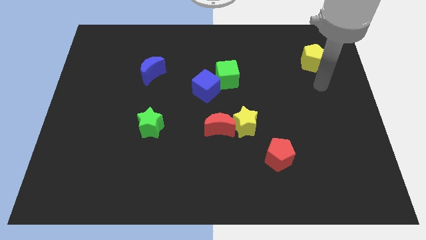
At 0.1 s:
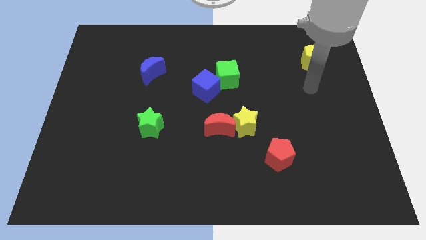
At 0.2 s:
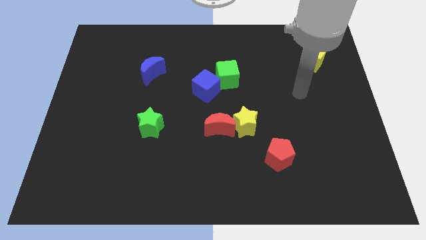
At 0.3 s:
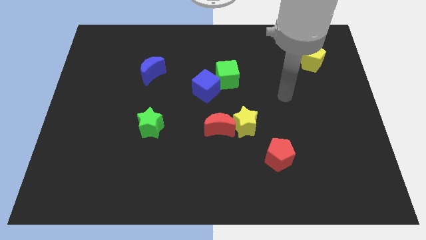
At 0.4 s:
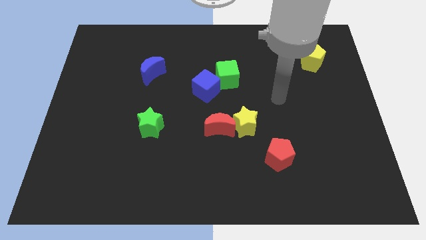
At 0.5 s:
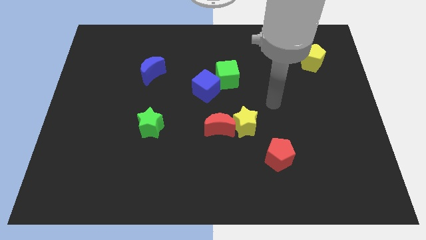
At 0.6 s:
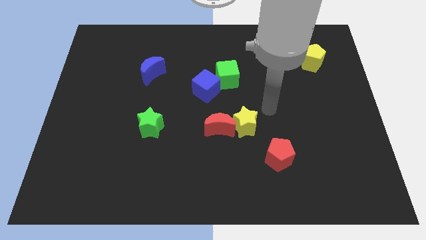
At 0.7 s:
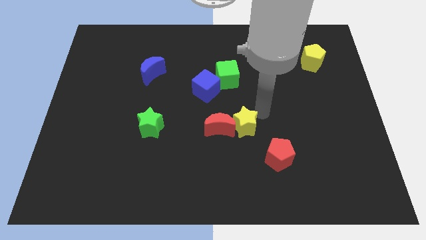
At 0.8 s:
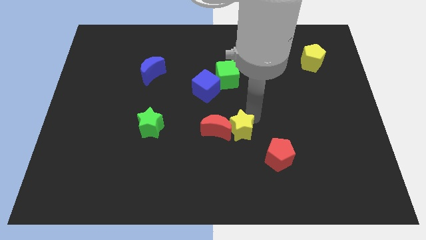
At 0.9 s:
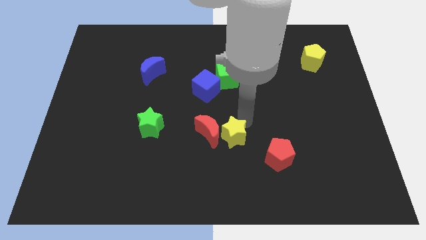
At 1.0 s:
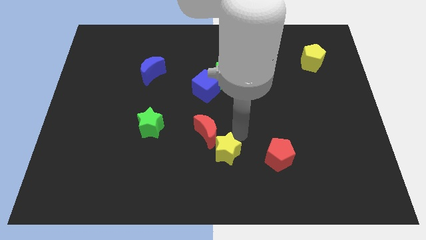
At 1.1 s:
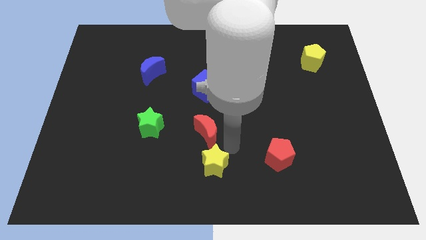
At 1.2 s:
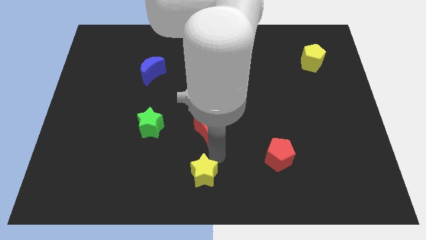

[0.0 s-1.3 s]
separate the red moon from the yellow star

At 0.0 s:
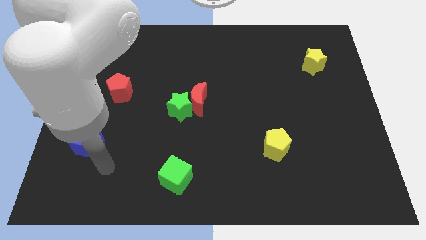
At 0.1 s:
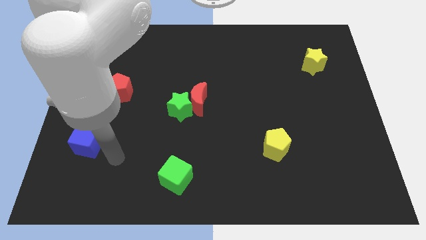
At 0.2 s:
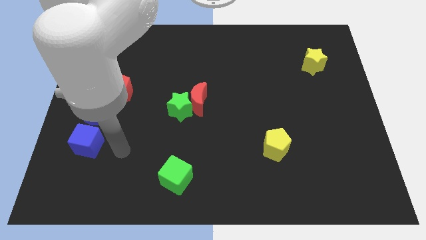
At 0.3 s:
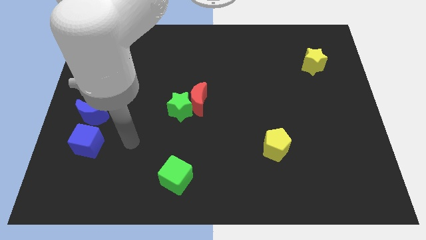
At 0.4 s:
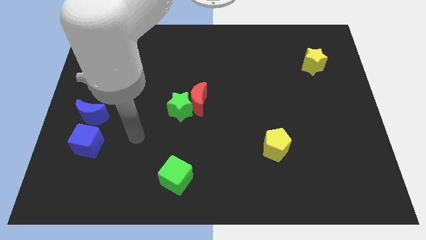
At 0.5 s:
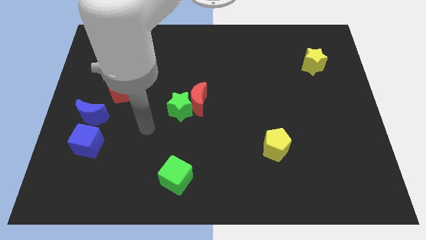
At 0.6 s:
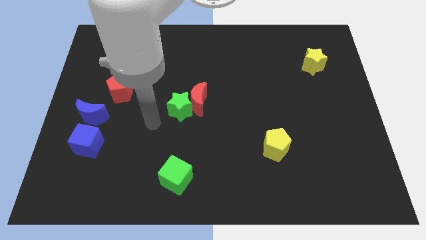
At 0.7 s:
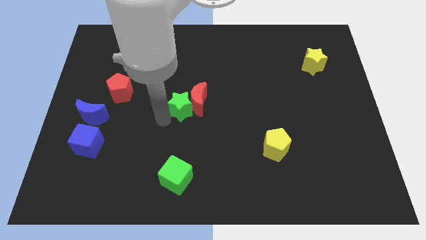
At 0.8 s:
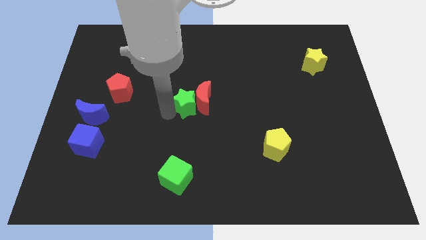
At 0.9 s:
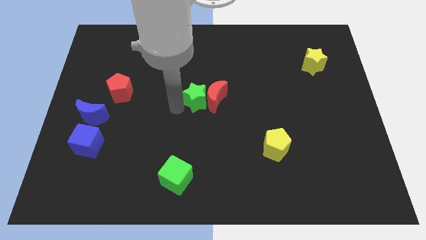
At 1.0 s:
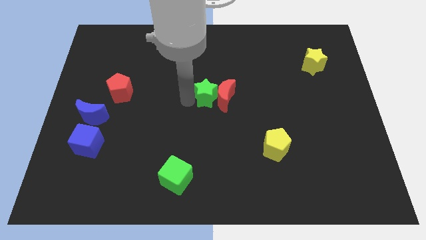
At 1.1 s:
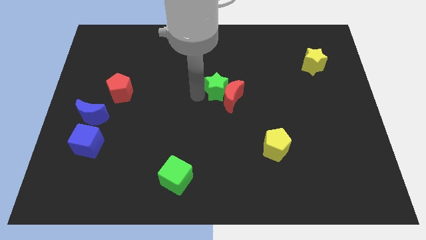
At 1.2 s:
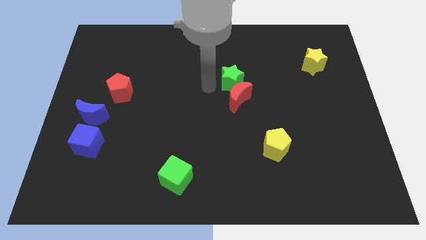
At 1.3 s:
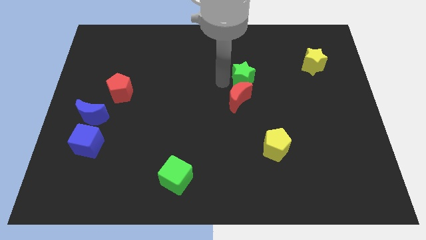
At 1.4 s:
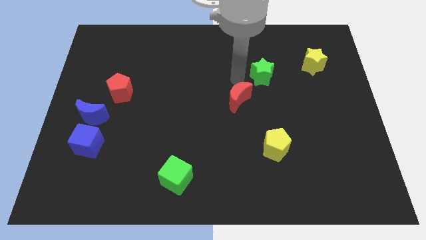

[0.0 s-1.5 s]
separate the red moon from the green star

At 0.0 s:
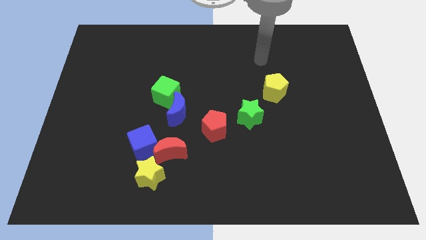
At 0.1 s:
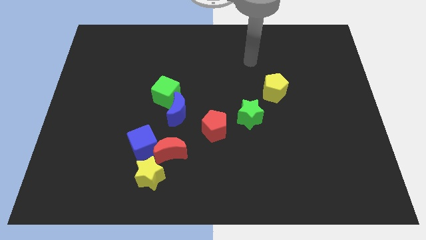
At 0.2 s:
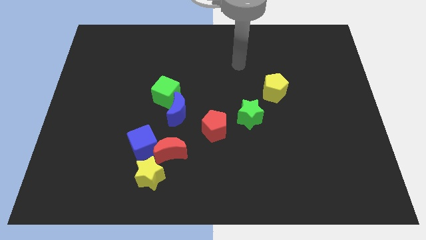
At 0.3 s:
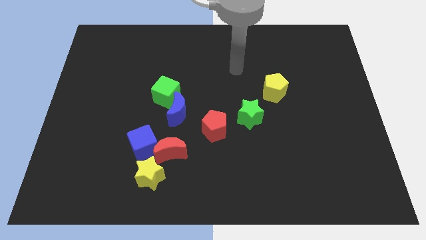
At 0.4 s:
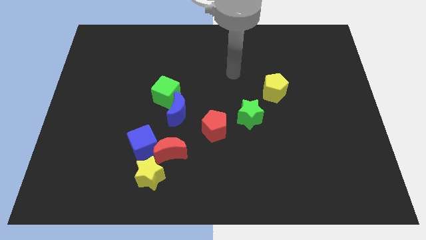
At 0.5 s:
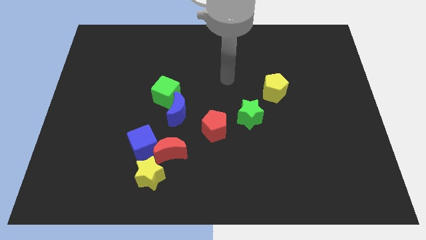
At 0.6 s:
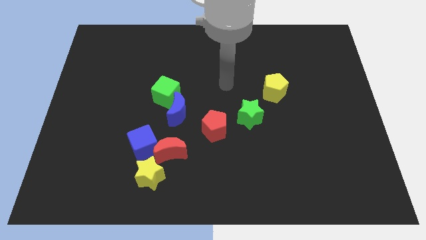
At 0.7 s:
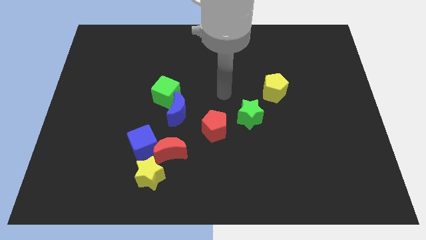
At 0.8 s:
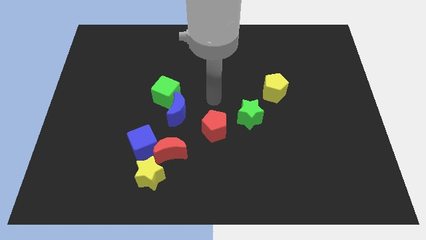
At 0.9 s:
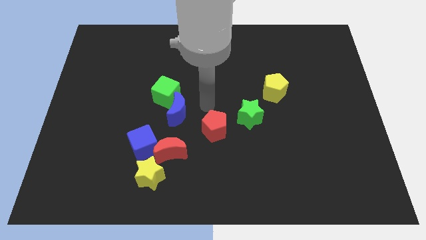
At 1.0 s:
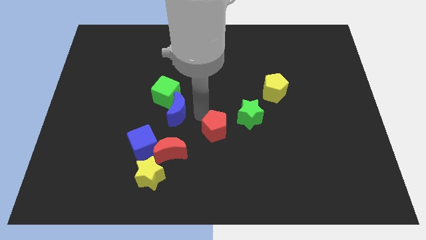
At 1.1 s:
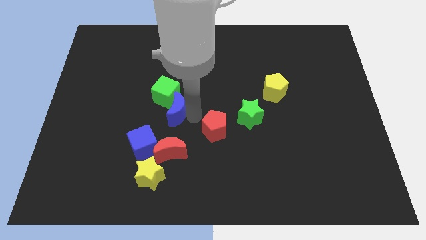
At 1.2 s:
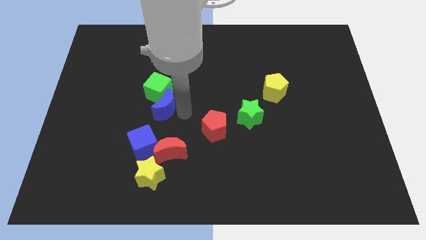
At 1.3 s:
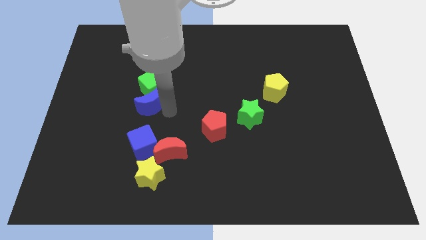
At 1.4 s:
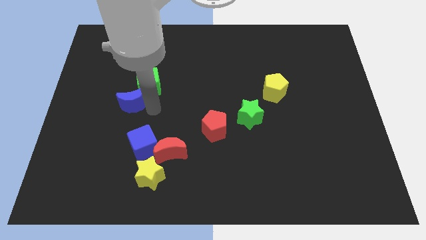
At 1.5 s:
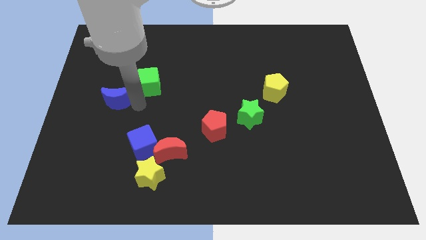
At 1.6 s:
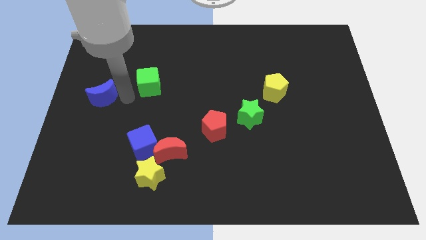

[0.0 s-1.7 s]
pull the green cube apart from the blue moon

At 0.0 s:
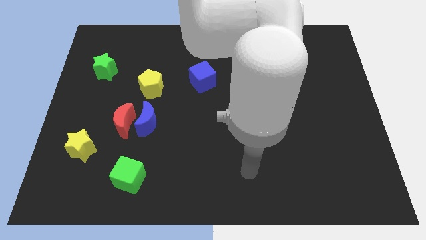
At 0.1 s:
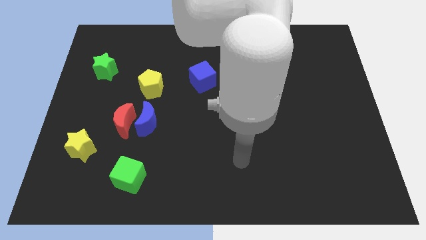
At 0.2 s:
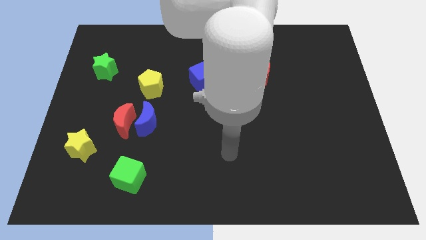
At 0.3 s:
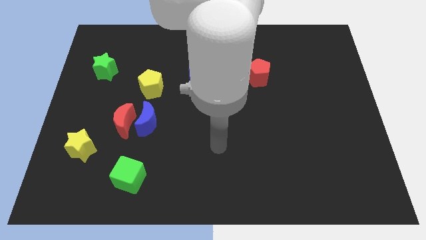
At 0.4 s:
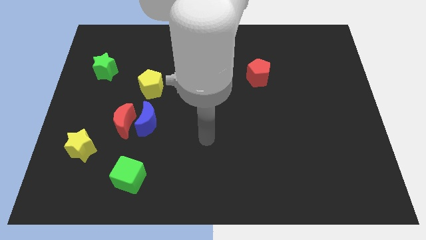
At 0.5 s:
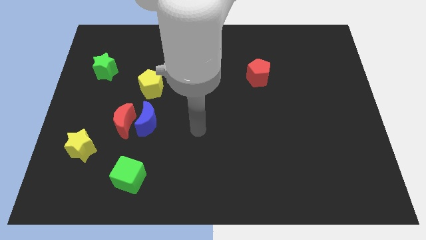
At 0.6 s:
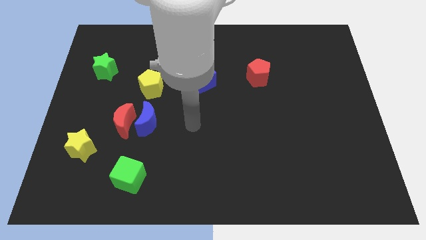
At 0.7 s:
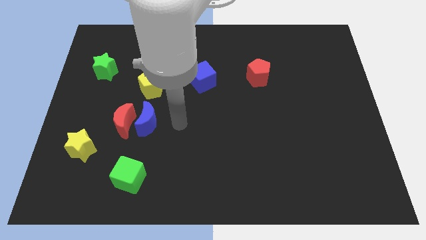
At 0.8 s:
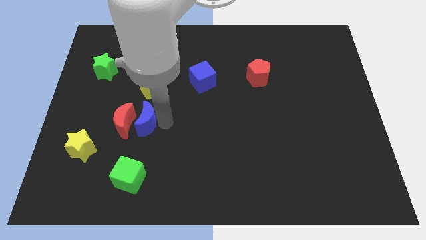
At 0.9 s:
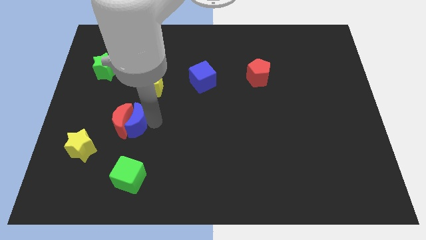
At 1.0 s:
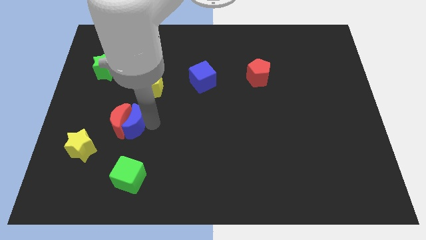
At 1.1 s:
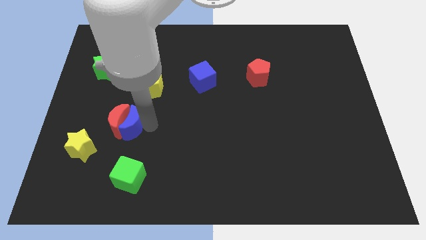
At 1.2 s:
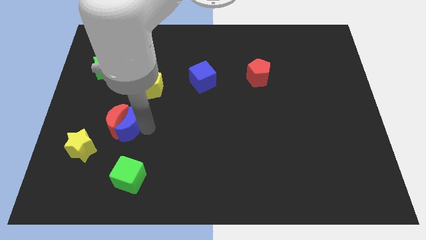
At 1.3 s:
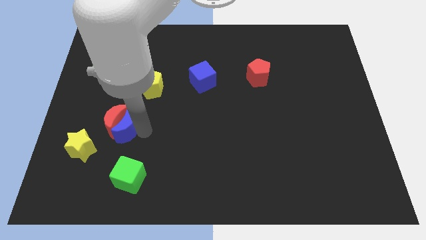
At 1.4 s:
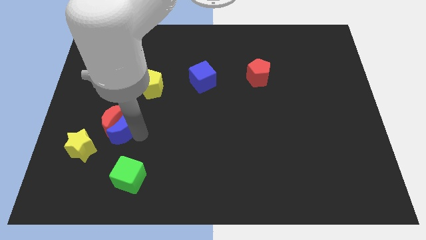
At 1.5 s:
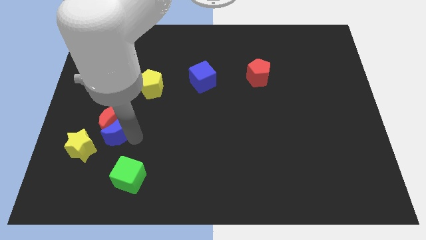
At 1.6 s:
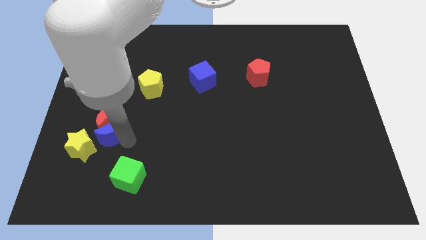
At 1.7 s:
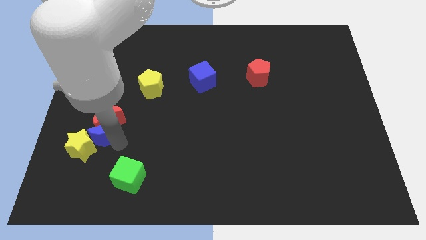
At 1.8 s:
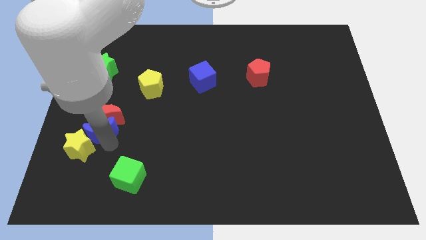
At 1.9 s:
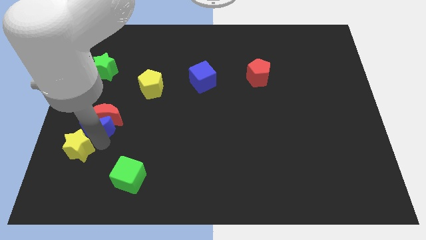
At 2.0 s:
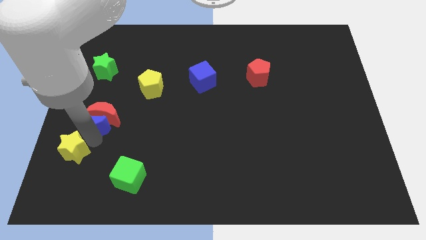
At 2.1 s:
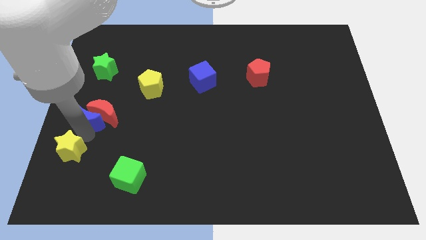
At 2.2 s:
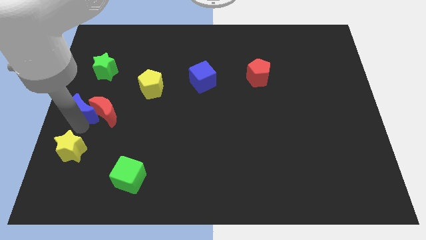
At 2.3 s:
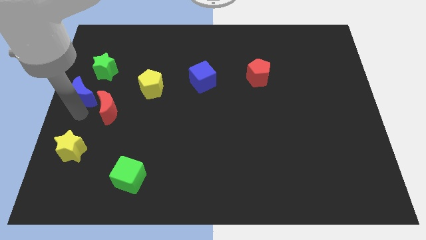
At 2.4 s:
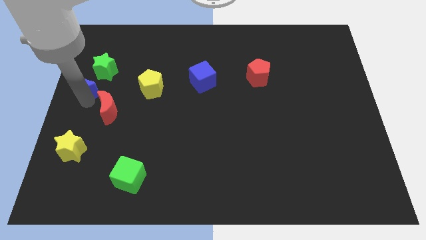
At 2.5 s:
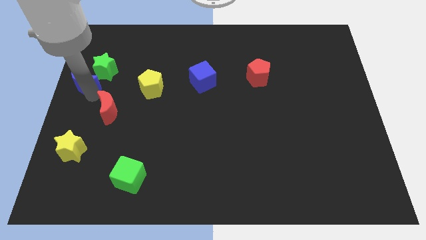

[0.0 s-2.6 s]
pull the red moon apart from the blue moon

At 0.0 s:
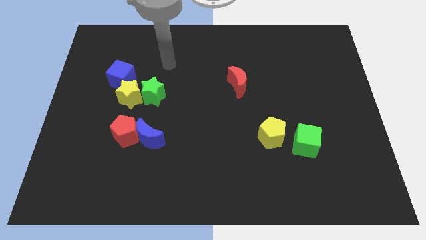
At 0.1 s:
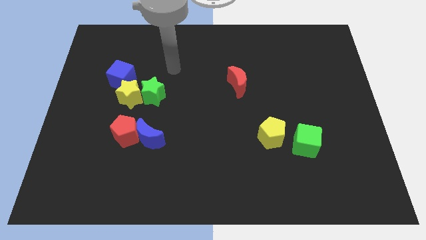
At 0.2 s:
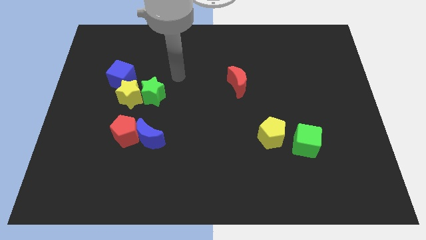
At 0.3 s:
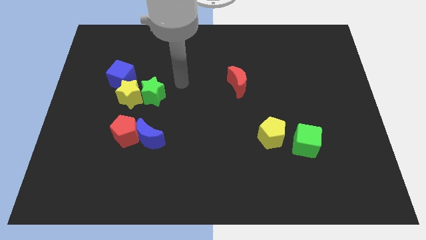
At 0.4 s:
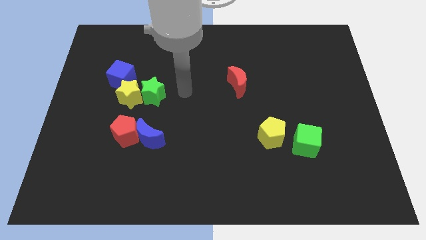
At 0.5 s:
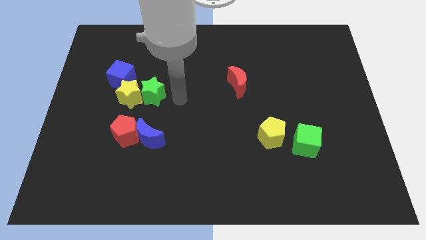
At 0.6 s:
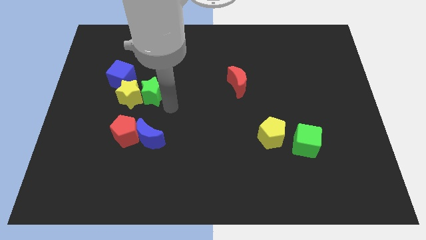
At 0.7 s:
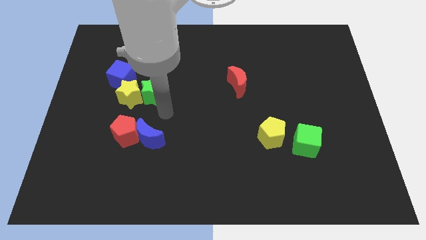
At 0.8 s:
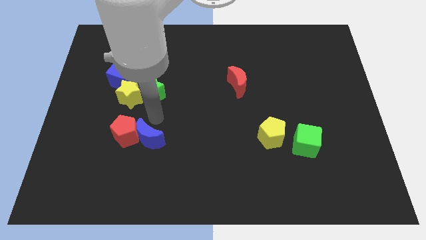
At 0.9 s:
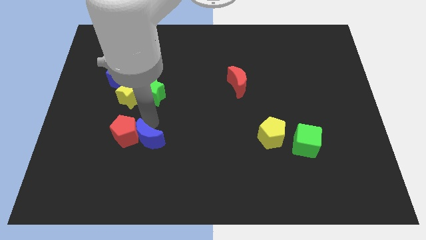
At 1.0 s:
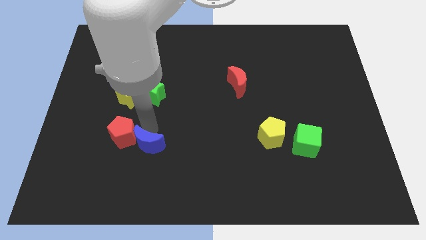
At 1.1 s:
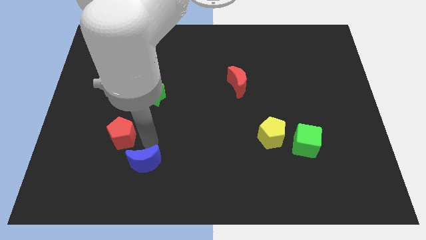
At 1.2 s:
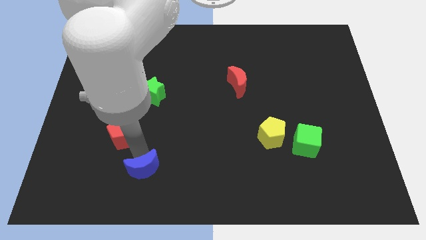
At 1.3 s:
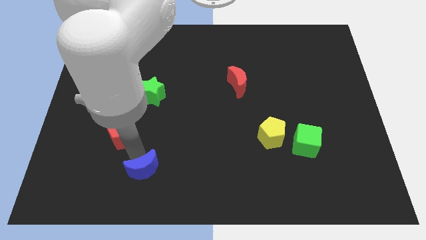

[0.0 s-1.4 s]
move the red pentagon away from the blue moon

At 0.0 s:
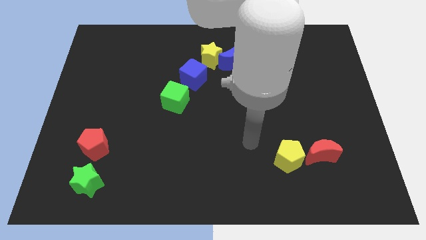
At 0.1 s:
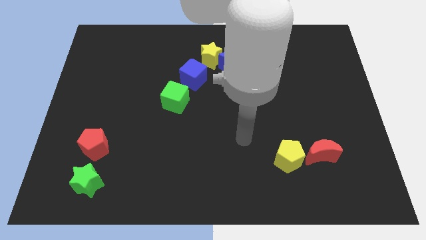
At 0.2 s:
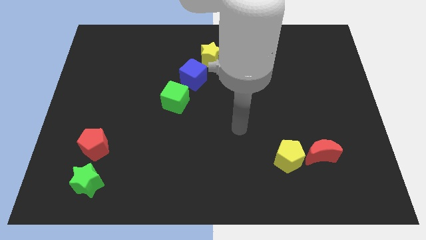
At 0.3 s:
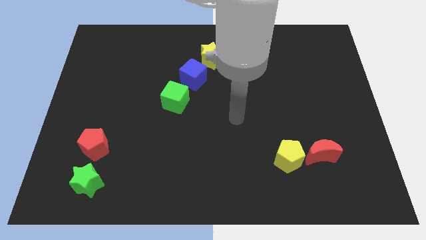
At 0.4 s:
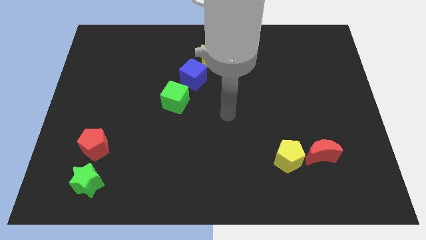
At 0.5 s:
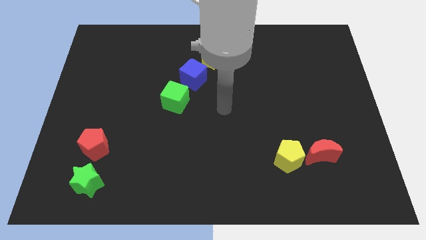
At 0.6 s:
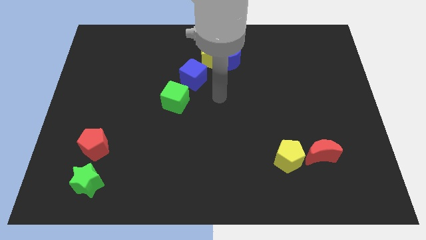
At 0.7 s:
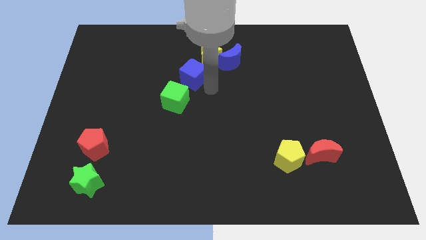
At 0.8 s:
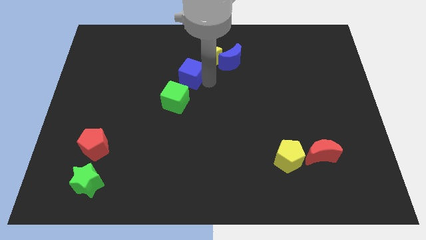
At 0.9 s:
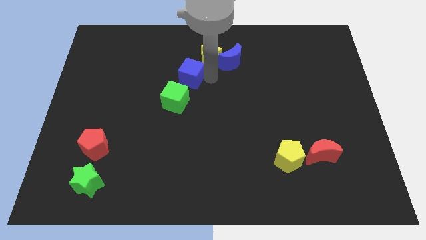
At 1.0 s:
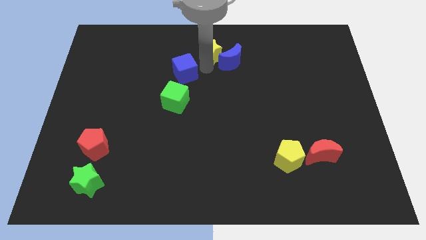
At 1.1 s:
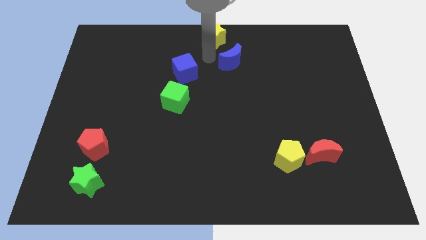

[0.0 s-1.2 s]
move the blue moon away from the yellow star
